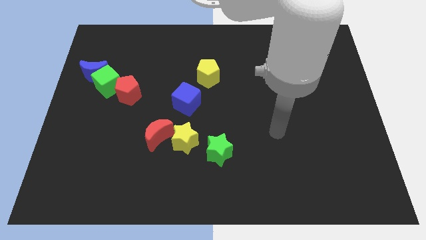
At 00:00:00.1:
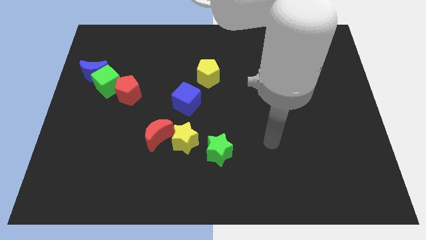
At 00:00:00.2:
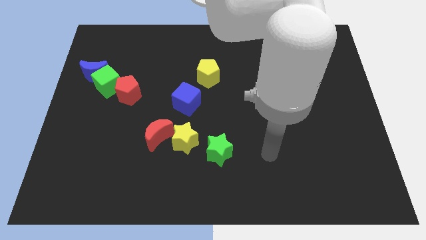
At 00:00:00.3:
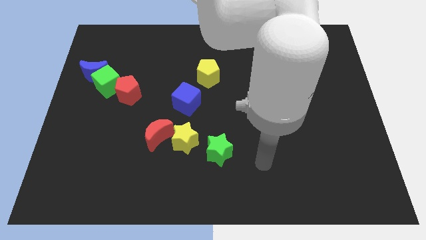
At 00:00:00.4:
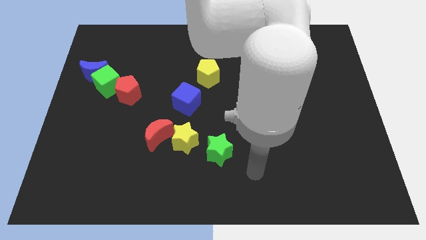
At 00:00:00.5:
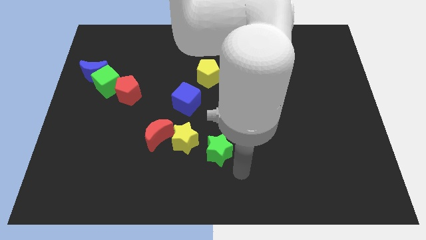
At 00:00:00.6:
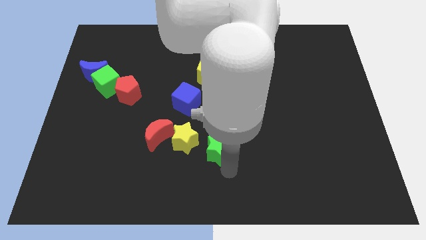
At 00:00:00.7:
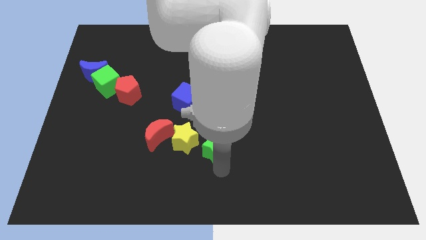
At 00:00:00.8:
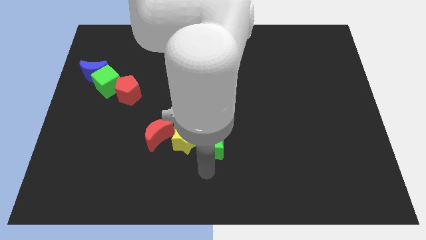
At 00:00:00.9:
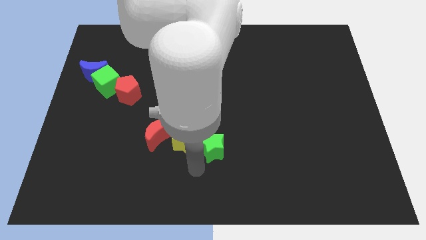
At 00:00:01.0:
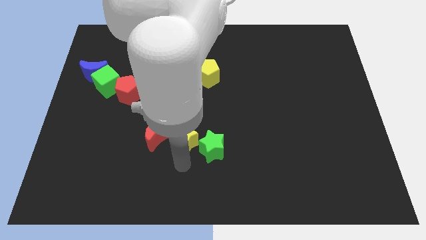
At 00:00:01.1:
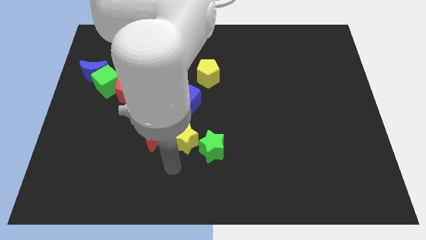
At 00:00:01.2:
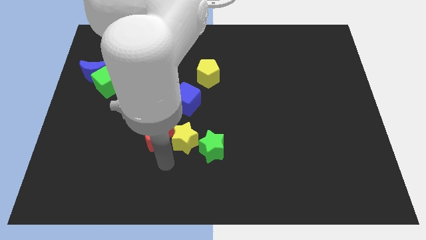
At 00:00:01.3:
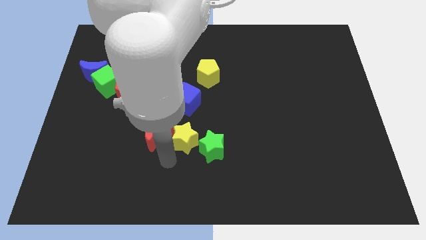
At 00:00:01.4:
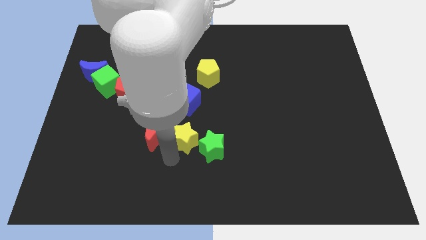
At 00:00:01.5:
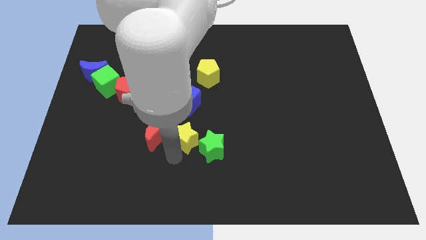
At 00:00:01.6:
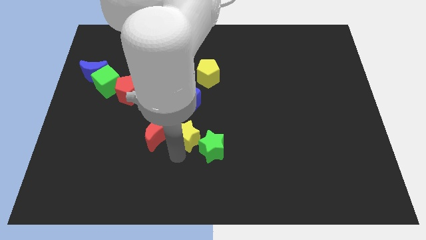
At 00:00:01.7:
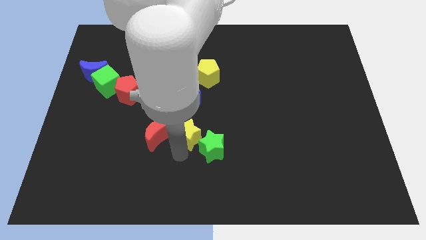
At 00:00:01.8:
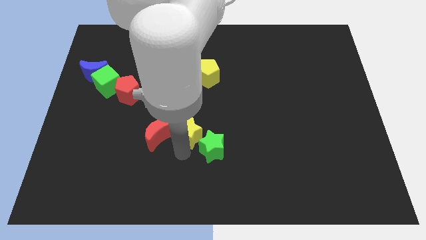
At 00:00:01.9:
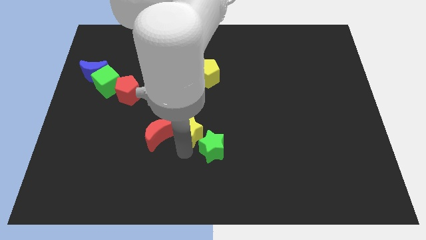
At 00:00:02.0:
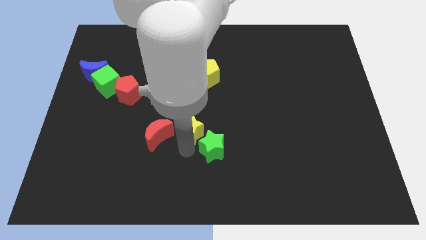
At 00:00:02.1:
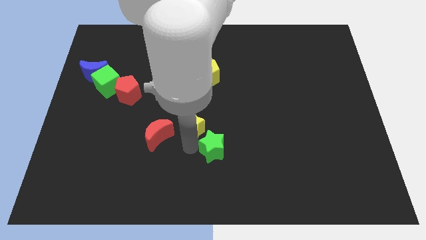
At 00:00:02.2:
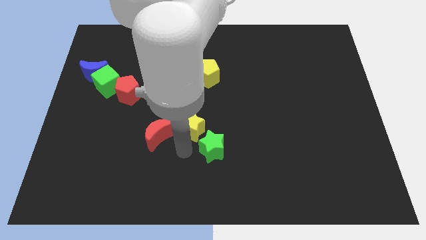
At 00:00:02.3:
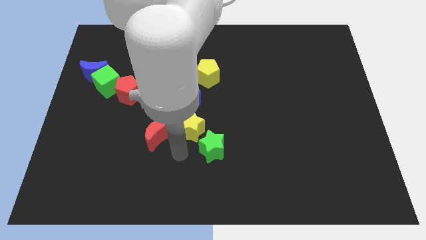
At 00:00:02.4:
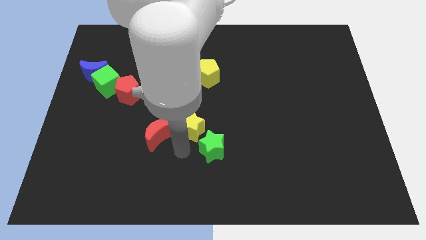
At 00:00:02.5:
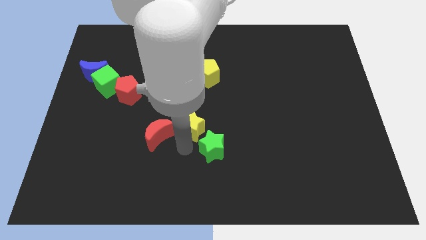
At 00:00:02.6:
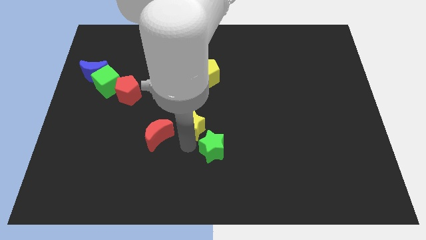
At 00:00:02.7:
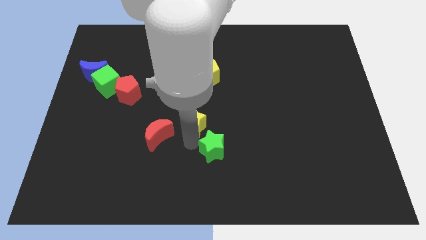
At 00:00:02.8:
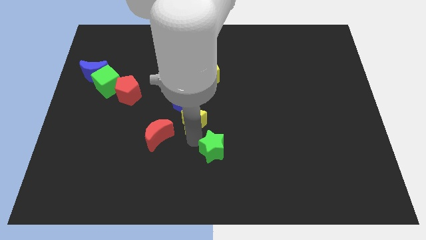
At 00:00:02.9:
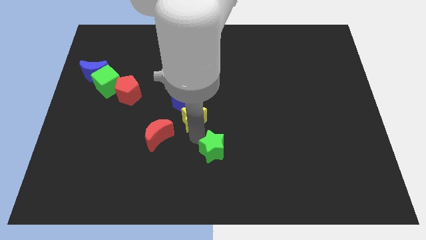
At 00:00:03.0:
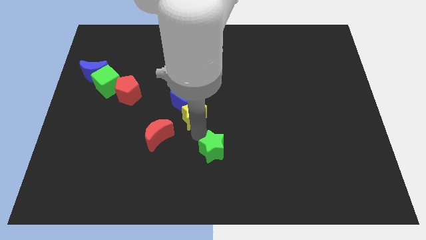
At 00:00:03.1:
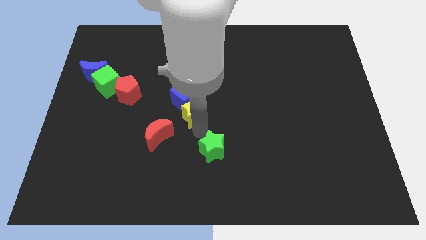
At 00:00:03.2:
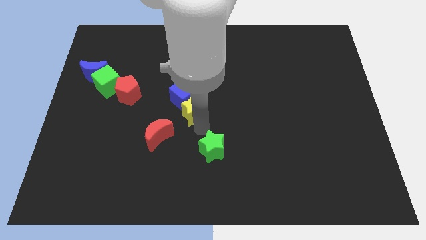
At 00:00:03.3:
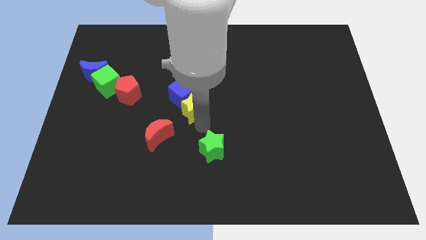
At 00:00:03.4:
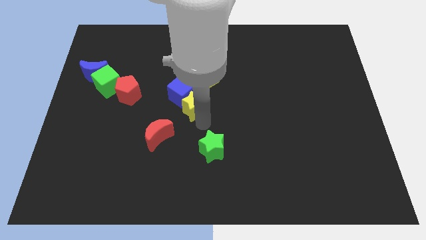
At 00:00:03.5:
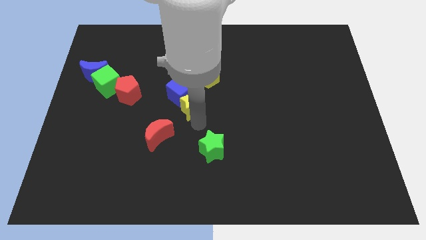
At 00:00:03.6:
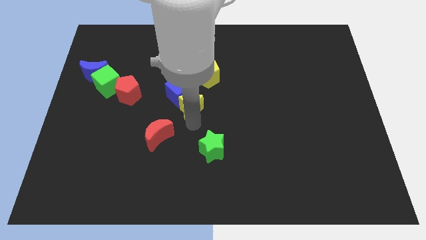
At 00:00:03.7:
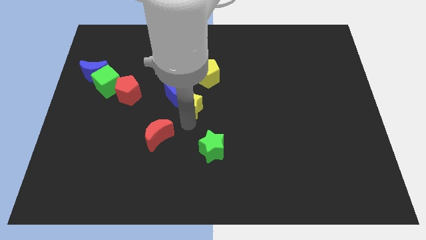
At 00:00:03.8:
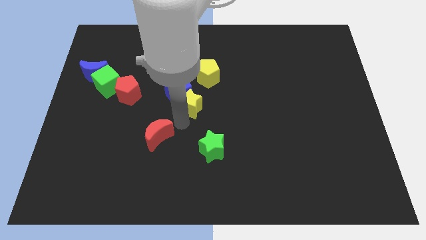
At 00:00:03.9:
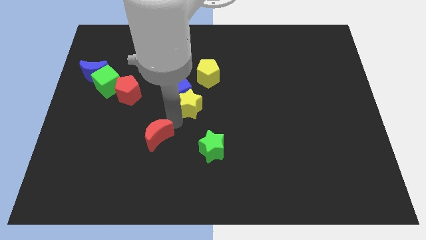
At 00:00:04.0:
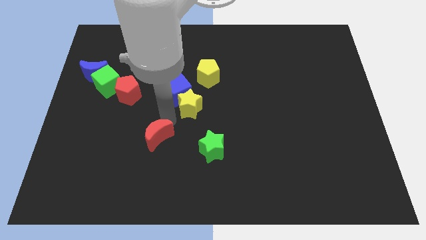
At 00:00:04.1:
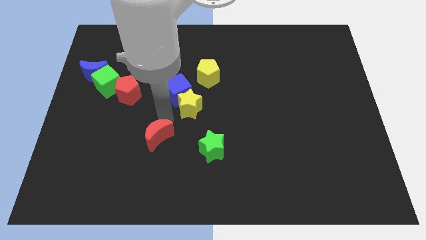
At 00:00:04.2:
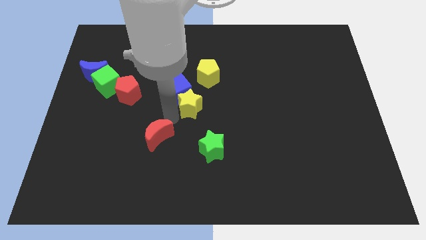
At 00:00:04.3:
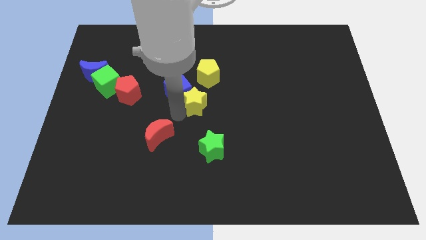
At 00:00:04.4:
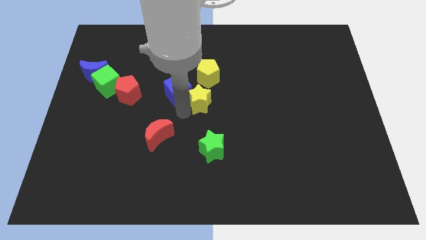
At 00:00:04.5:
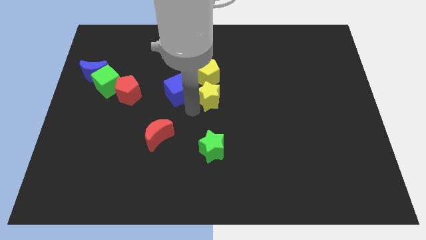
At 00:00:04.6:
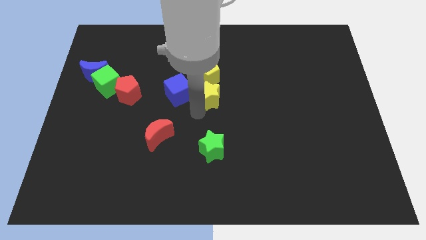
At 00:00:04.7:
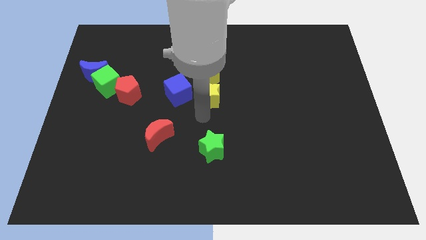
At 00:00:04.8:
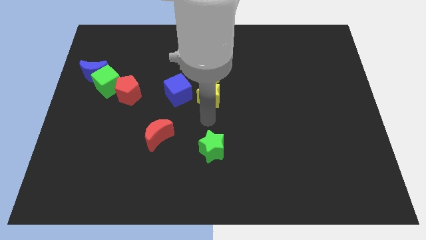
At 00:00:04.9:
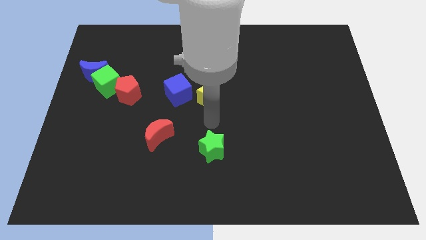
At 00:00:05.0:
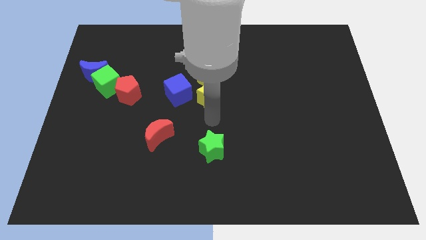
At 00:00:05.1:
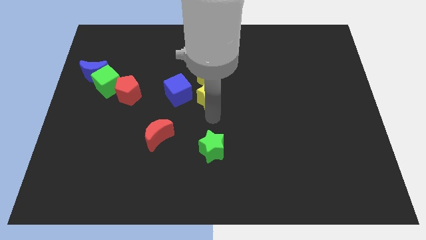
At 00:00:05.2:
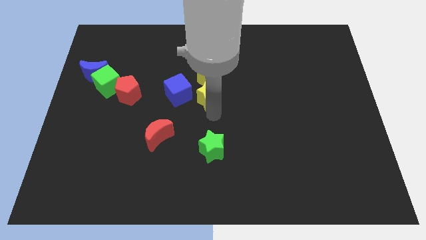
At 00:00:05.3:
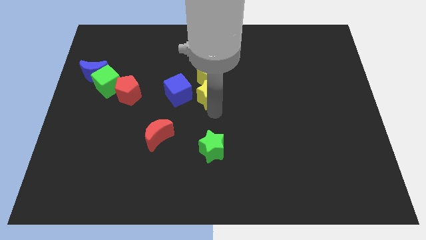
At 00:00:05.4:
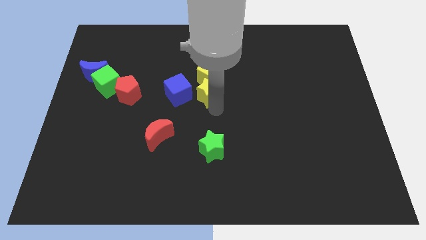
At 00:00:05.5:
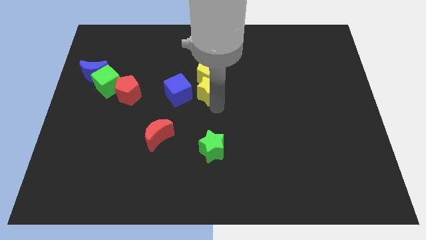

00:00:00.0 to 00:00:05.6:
put the yellow star to the yellow pentagon
